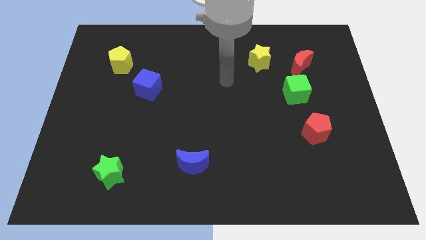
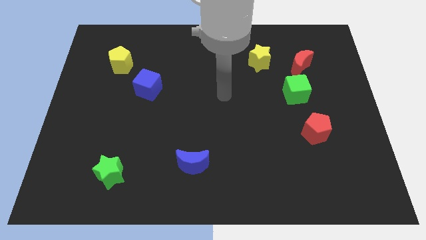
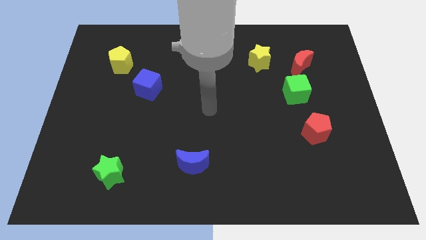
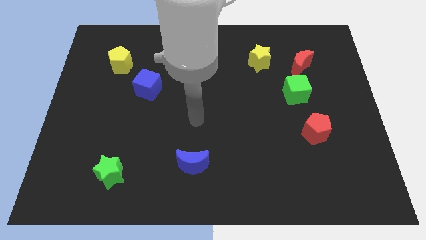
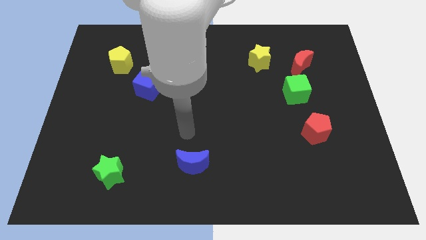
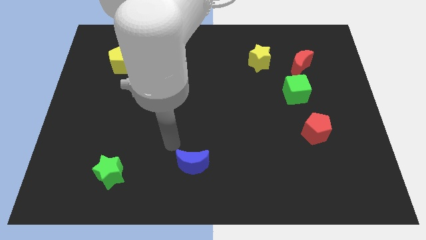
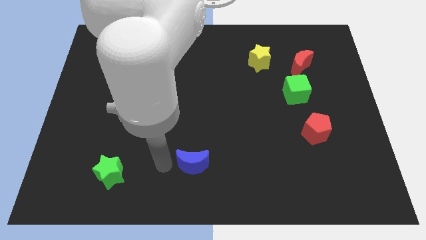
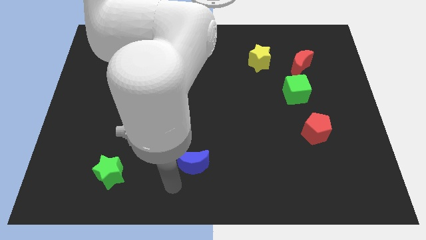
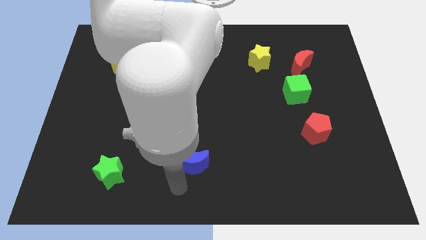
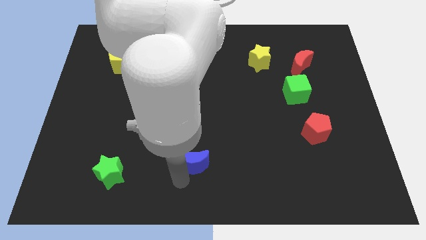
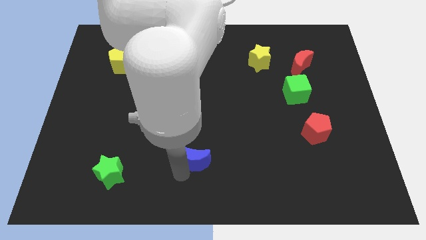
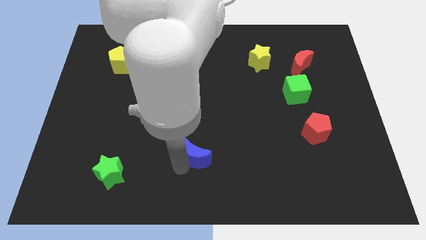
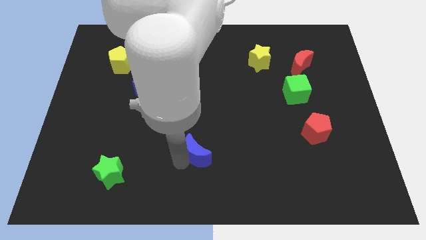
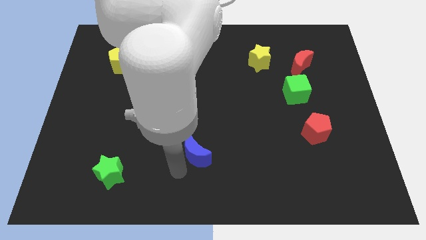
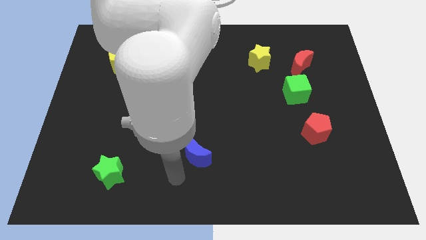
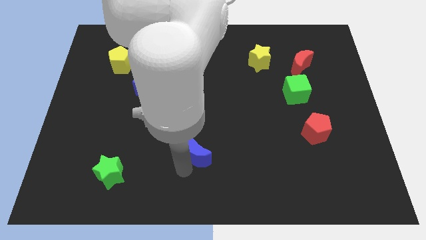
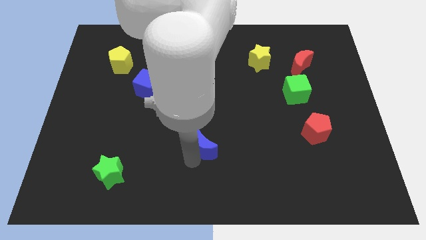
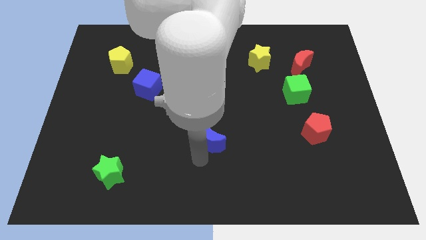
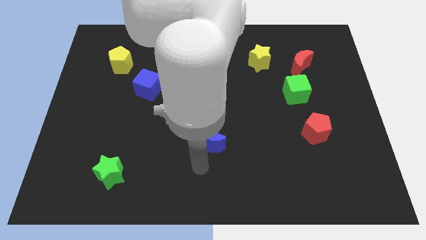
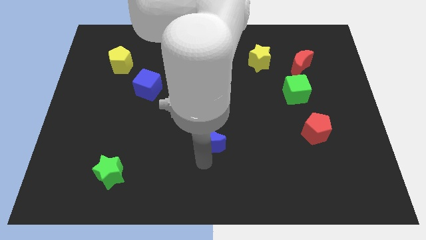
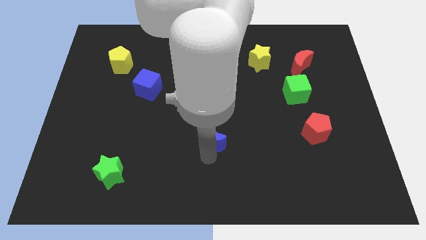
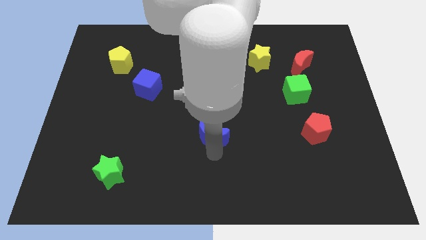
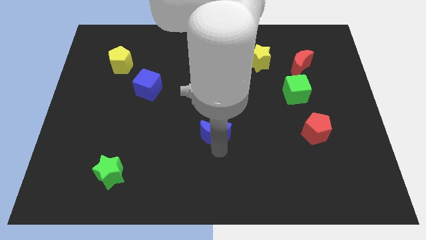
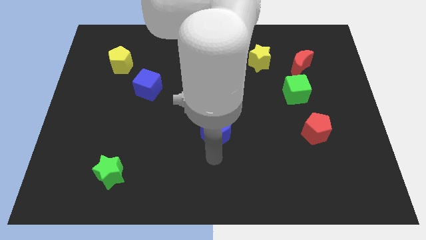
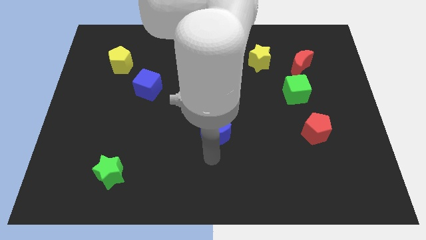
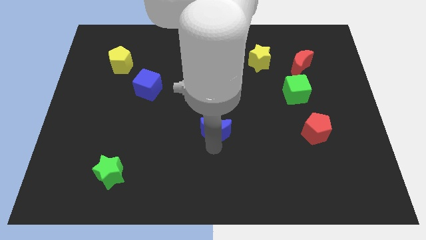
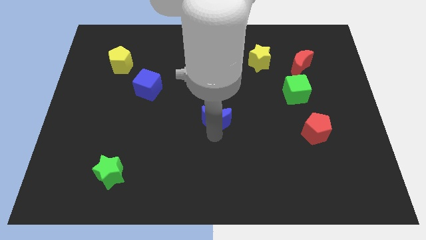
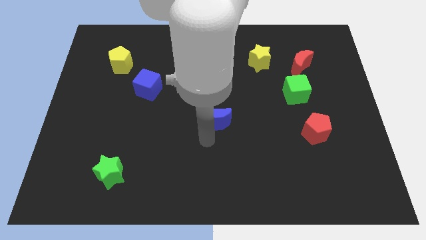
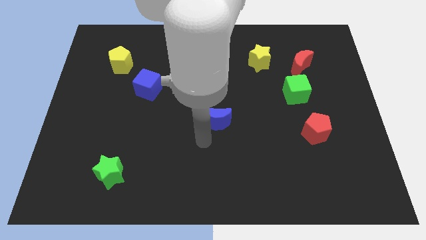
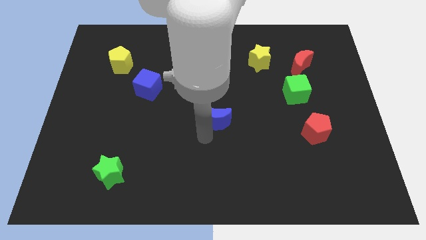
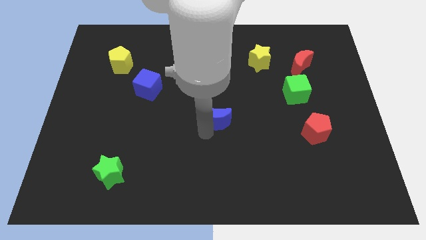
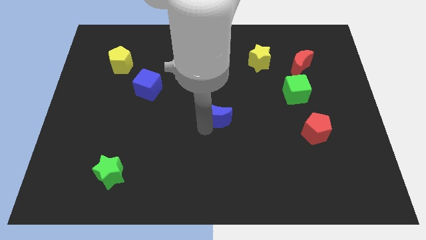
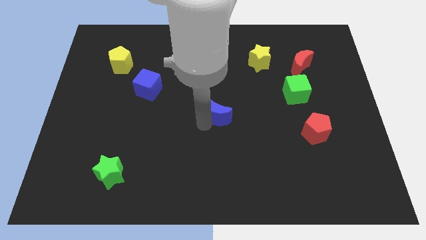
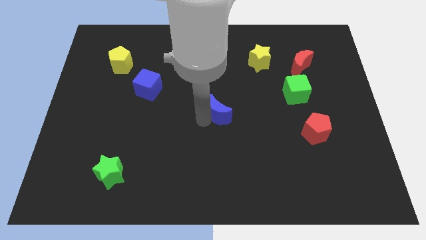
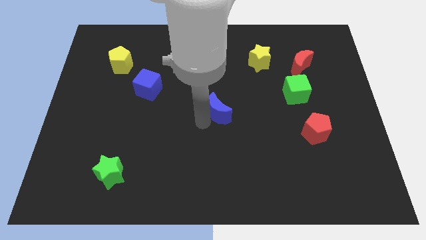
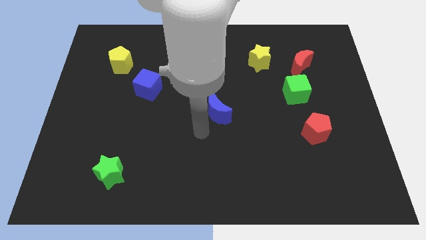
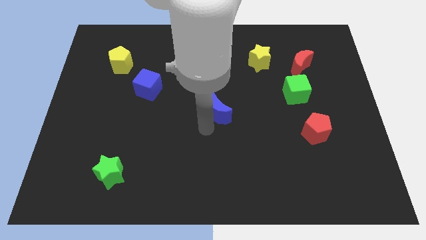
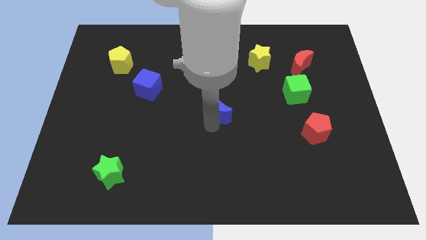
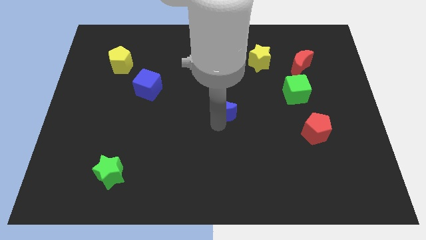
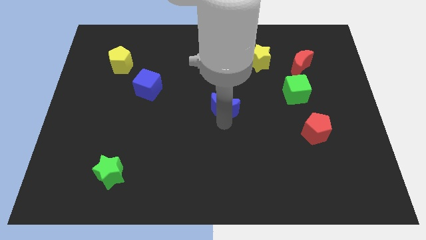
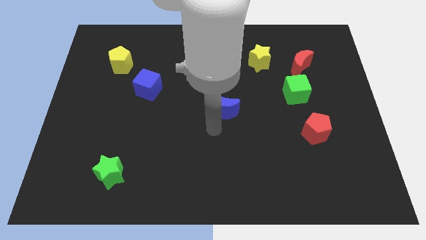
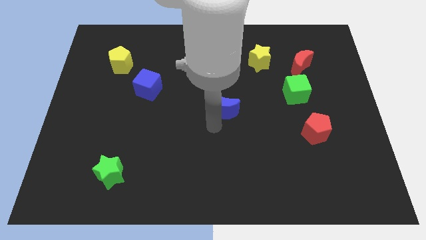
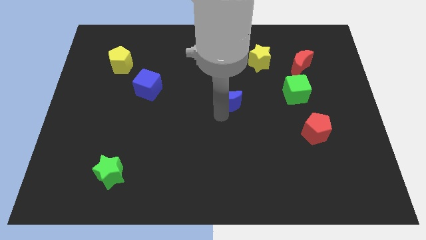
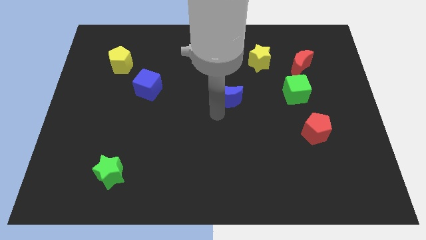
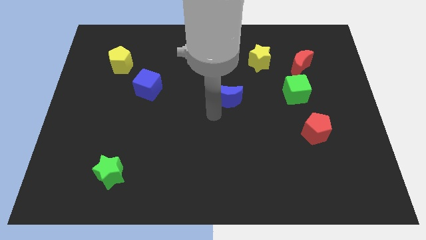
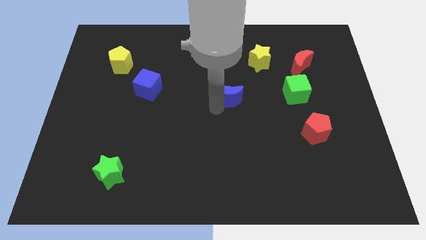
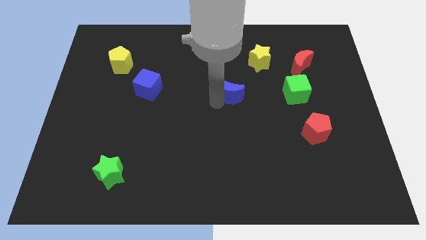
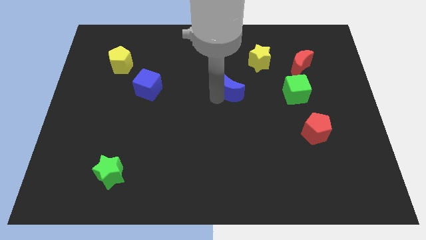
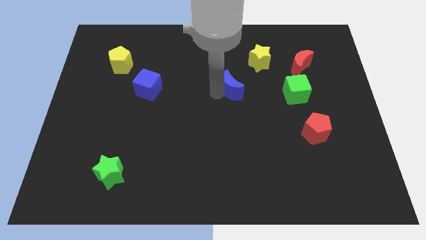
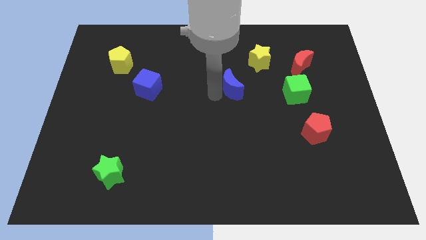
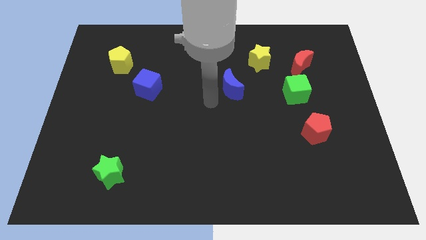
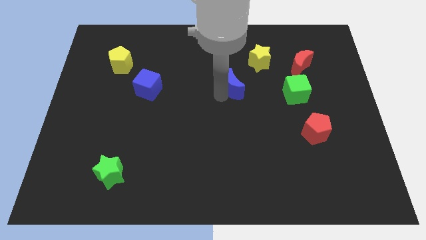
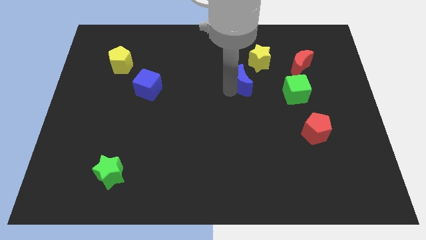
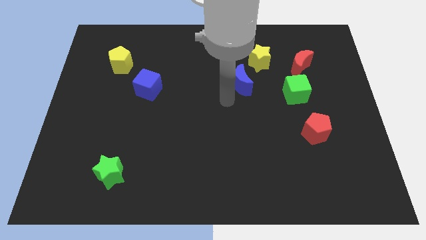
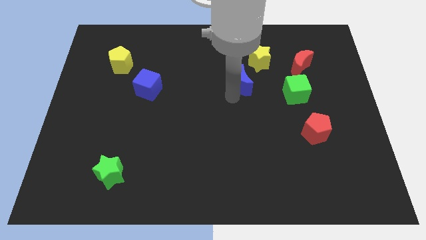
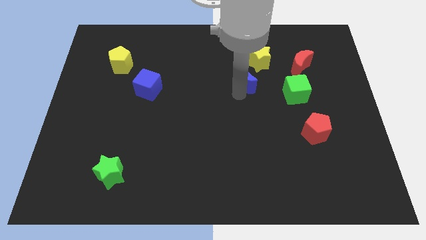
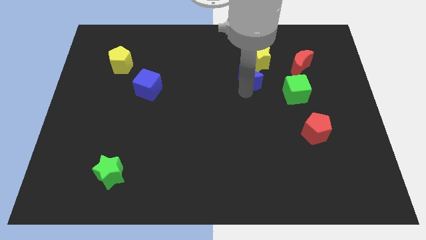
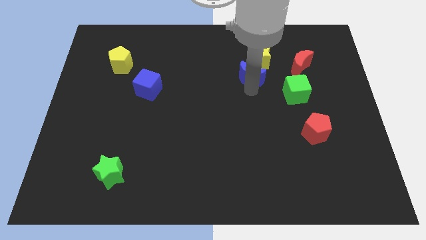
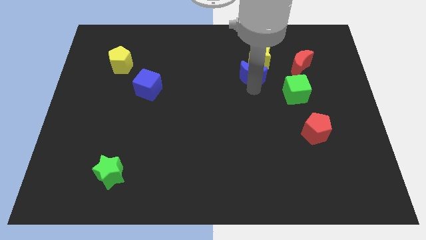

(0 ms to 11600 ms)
move the blue moon next to the yellow star

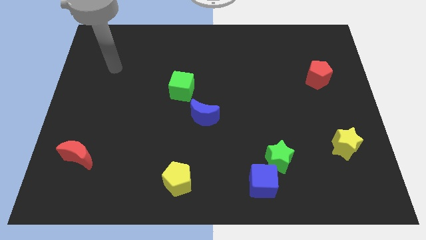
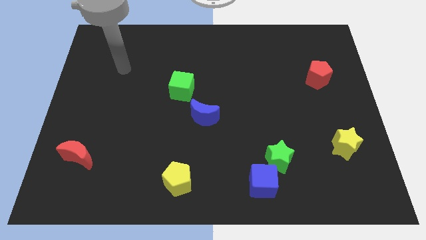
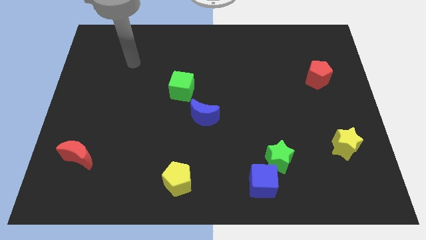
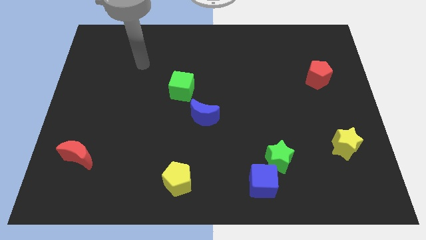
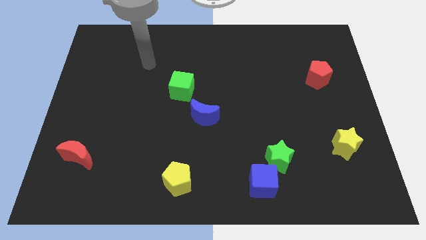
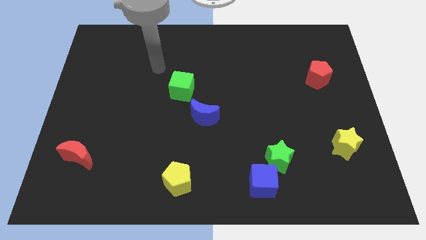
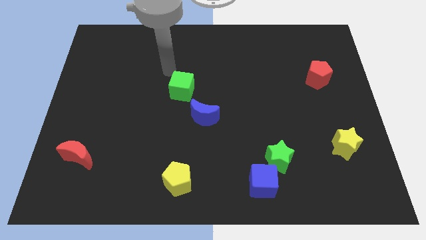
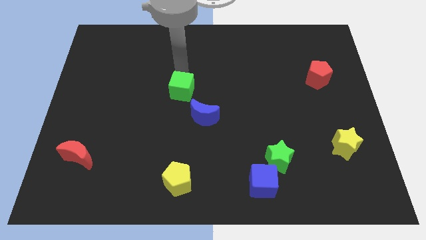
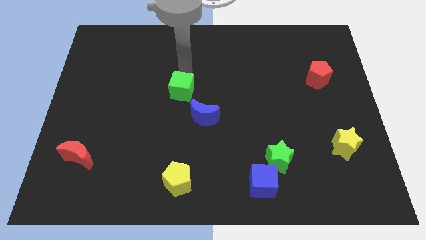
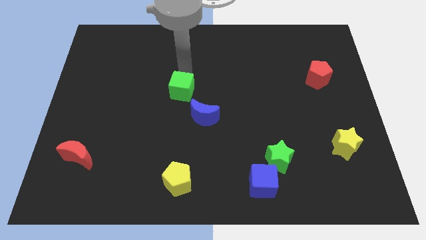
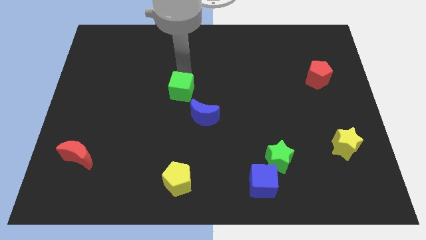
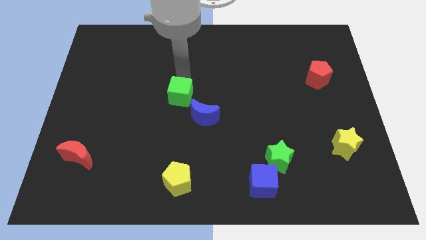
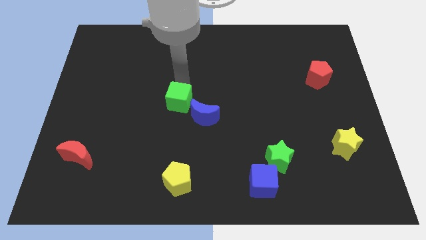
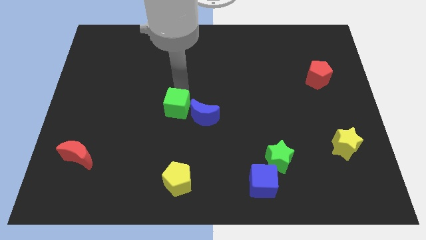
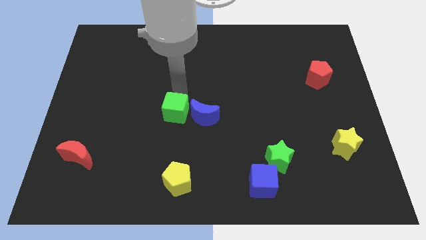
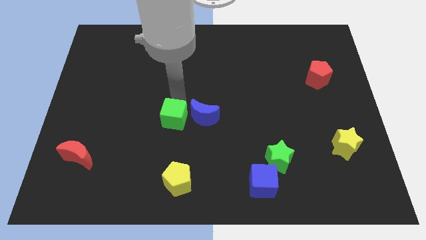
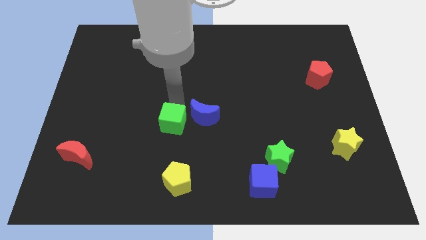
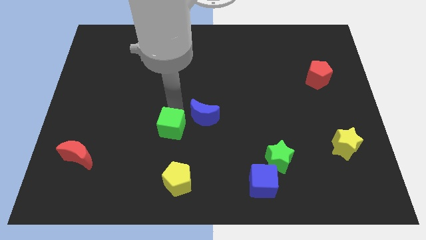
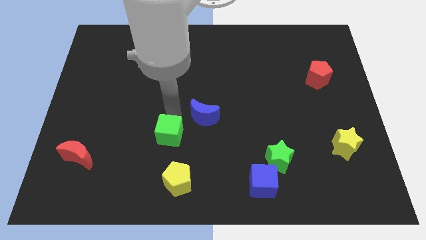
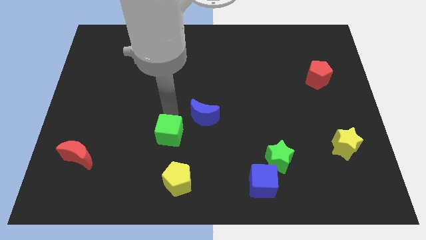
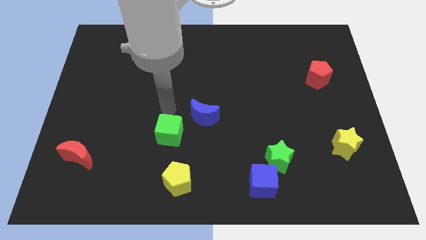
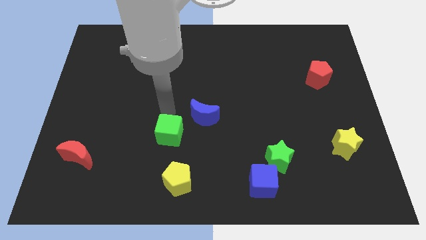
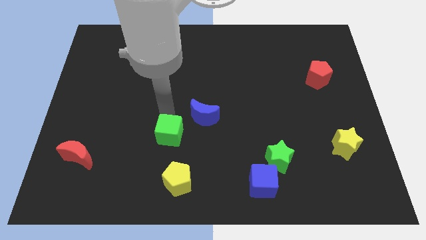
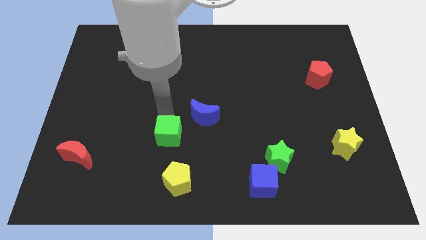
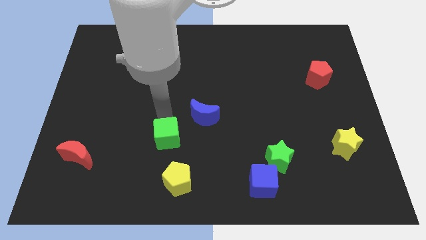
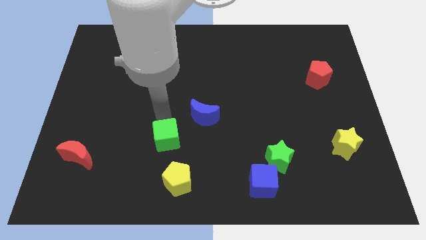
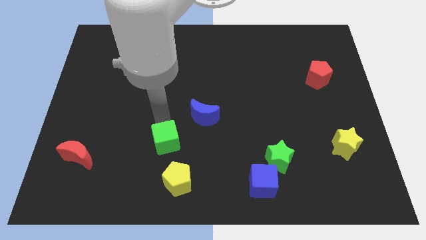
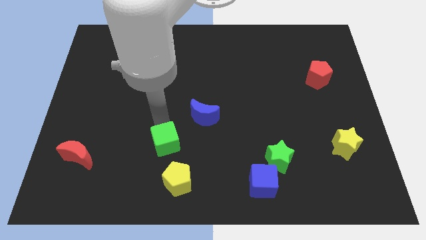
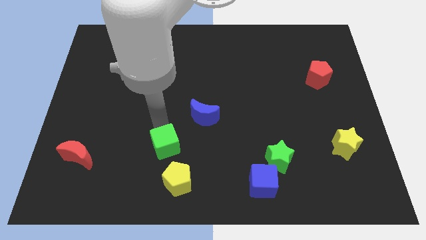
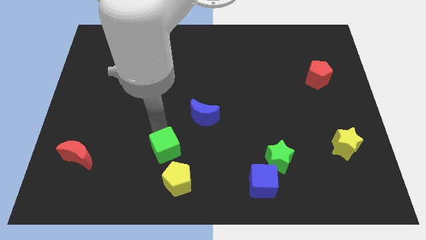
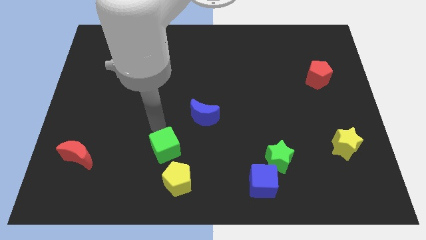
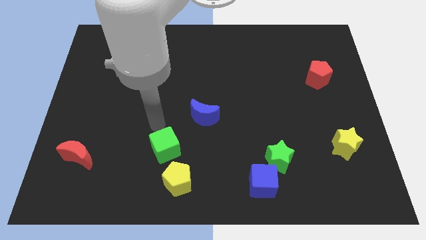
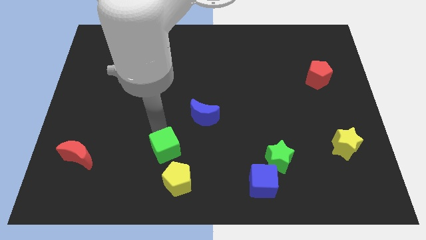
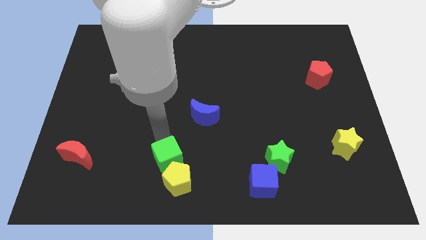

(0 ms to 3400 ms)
move the green cube to the yellow pentagon
